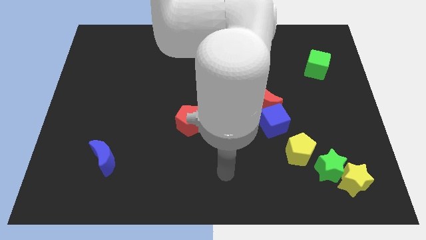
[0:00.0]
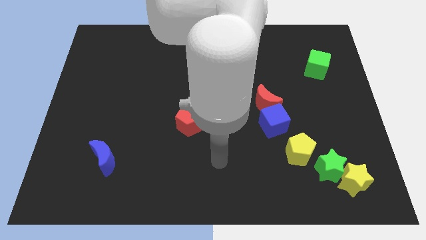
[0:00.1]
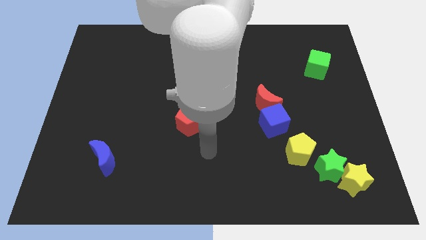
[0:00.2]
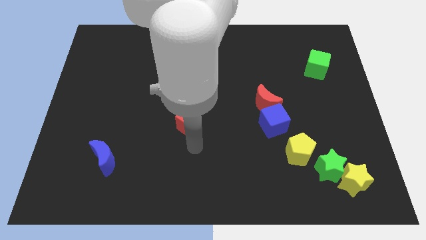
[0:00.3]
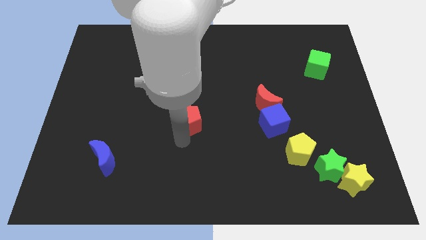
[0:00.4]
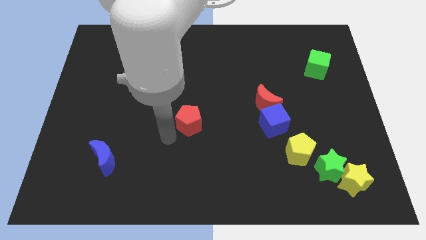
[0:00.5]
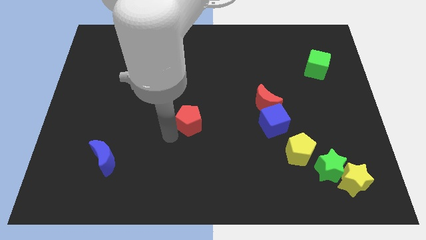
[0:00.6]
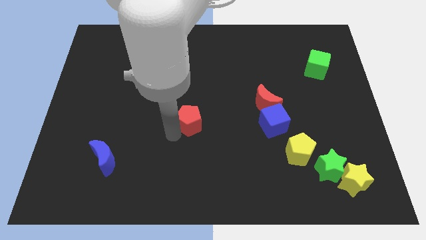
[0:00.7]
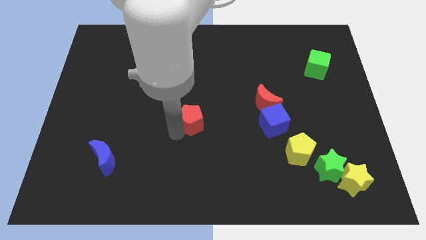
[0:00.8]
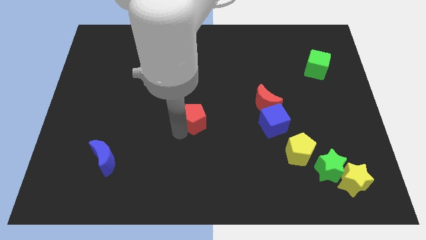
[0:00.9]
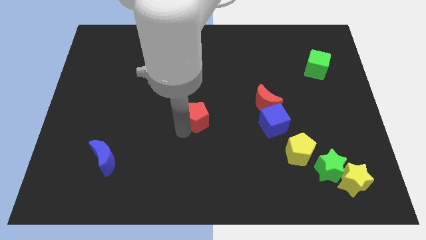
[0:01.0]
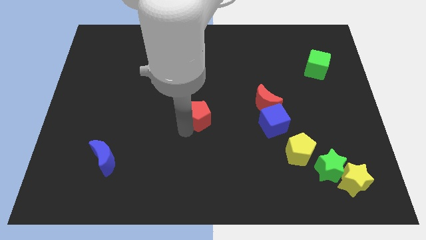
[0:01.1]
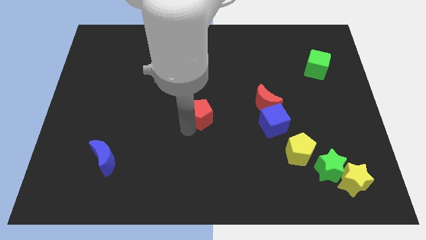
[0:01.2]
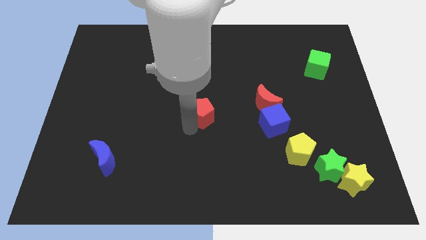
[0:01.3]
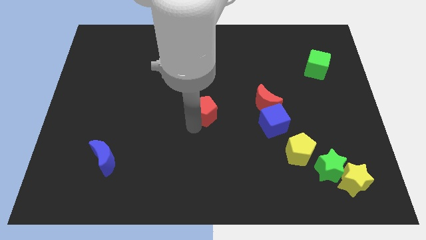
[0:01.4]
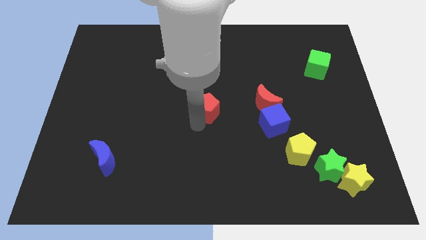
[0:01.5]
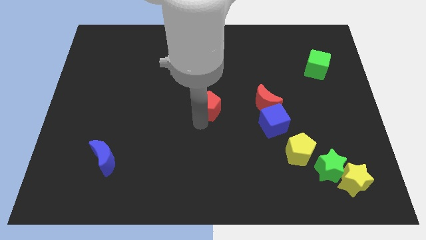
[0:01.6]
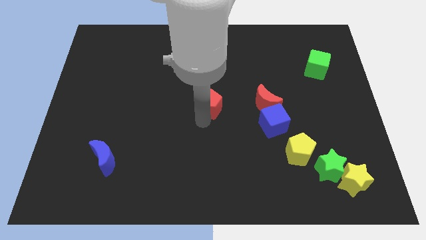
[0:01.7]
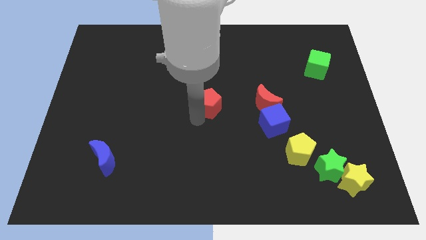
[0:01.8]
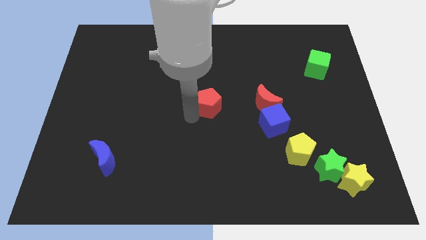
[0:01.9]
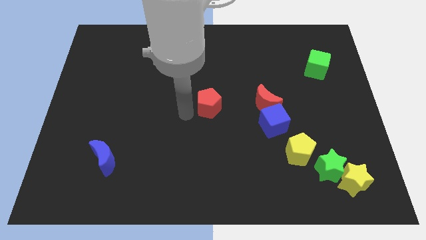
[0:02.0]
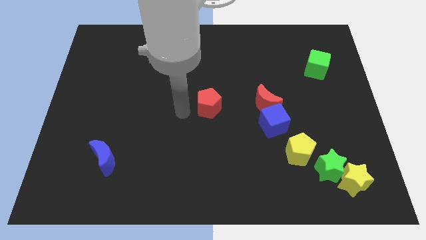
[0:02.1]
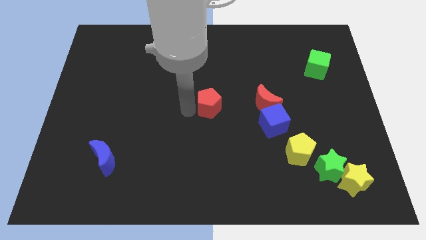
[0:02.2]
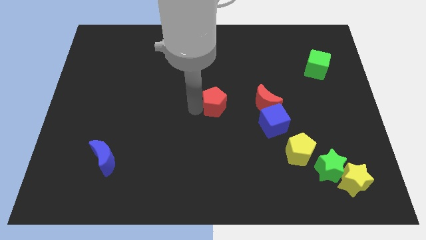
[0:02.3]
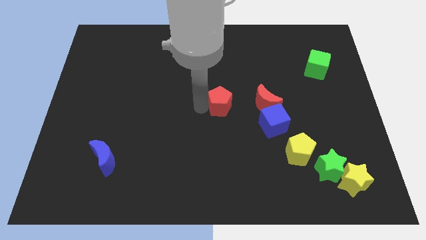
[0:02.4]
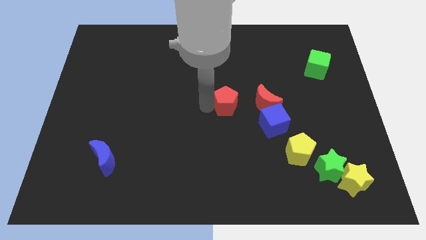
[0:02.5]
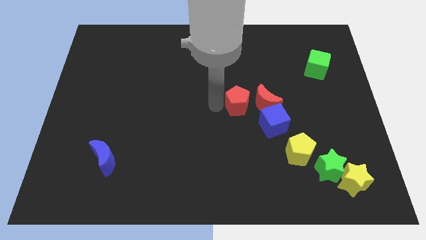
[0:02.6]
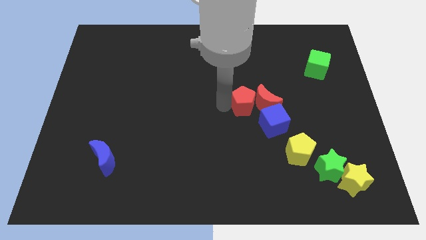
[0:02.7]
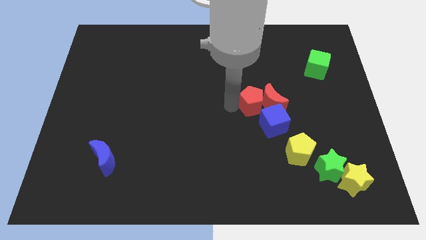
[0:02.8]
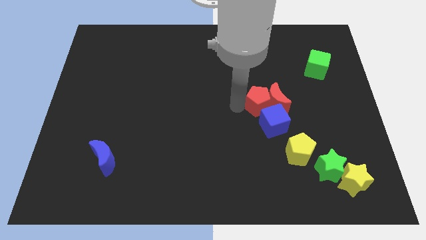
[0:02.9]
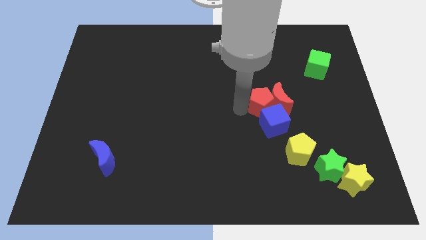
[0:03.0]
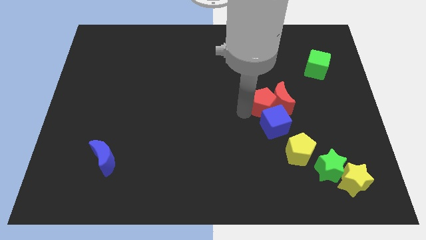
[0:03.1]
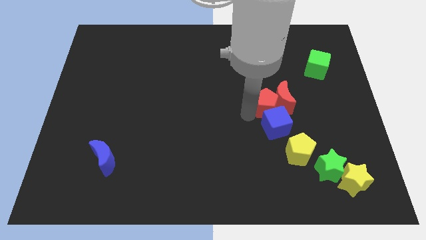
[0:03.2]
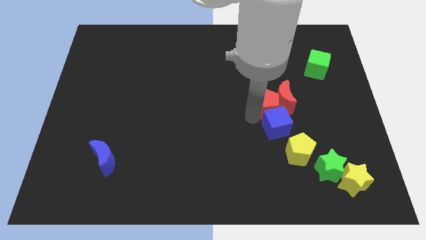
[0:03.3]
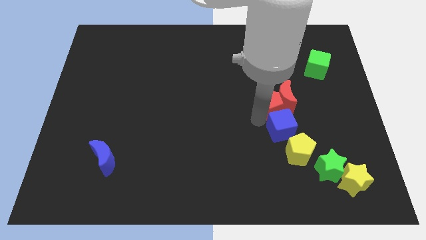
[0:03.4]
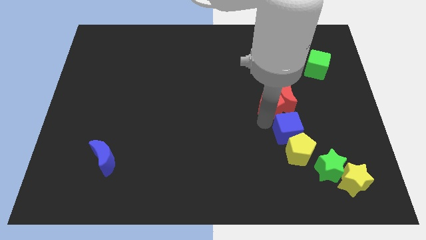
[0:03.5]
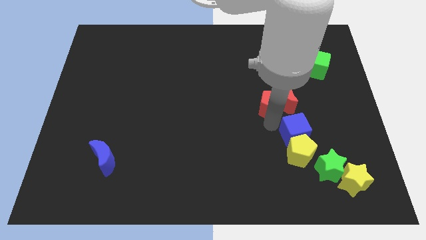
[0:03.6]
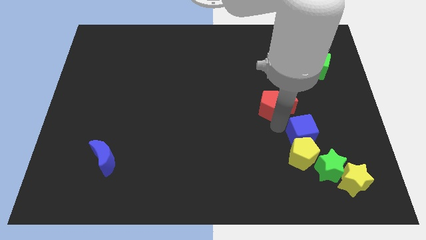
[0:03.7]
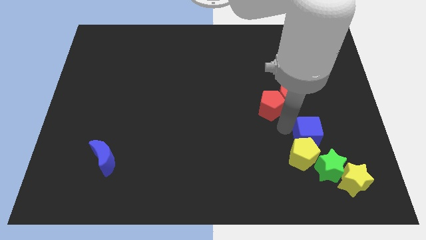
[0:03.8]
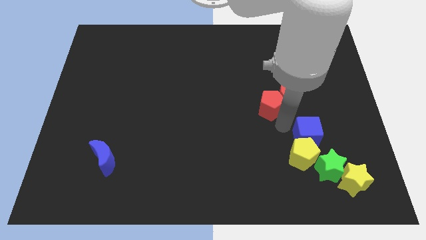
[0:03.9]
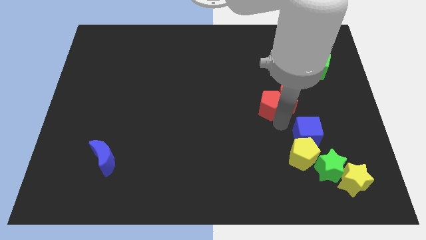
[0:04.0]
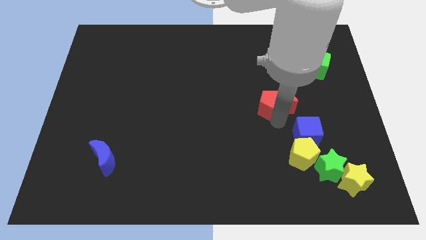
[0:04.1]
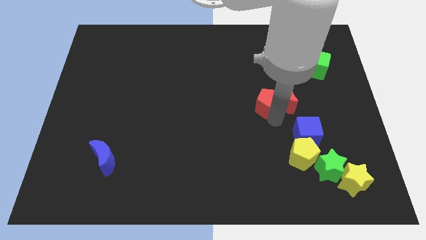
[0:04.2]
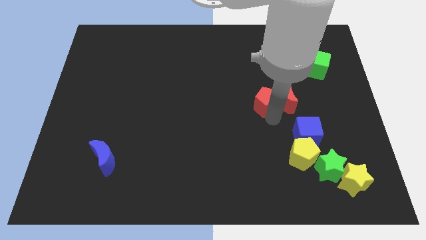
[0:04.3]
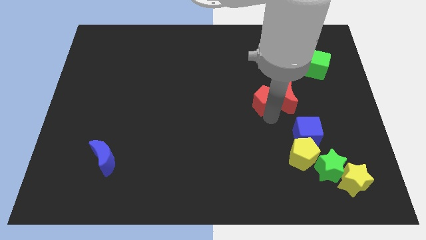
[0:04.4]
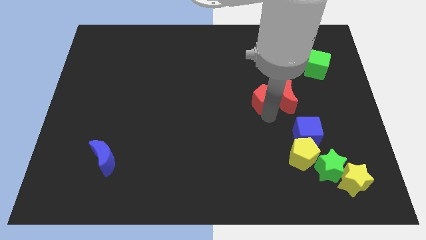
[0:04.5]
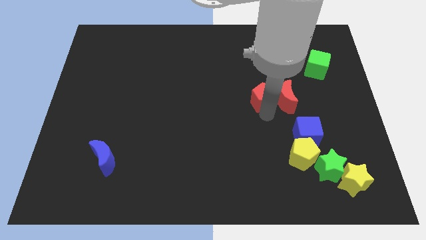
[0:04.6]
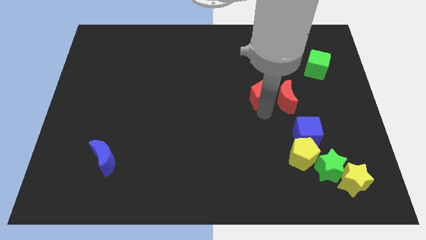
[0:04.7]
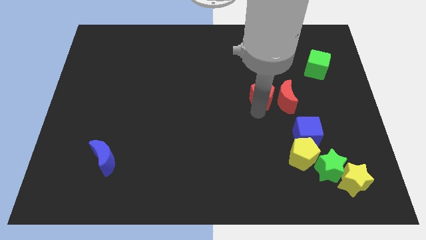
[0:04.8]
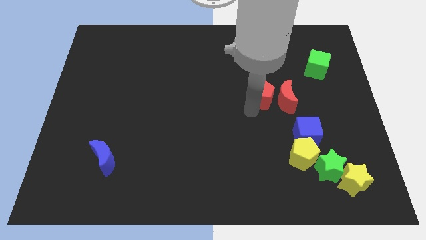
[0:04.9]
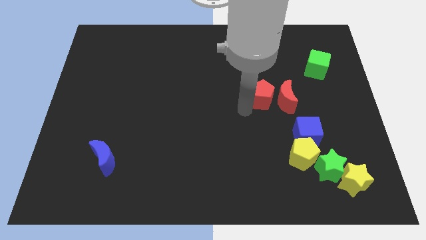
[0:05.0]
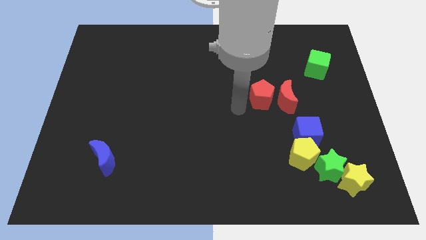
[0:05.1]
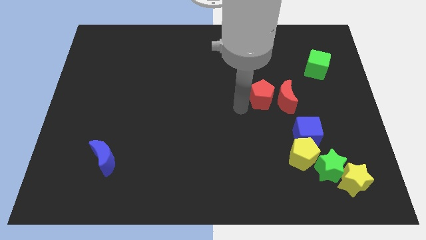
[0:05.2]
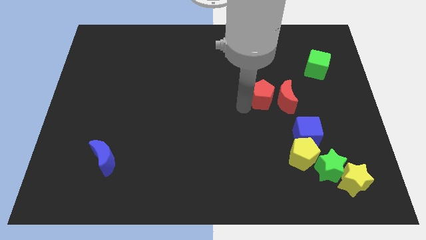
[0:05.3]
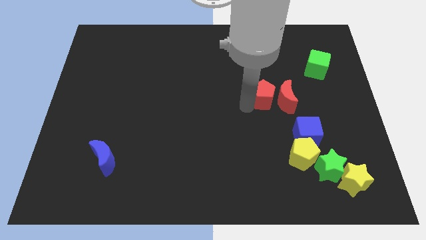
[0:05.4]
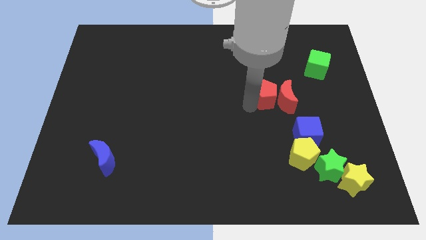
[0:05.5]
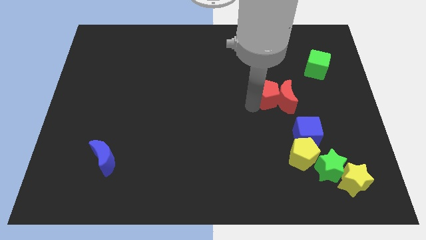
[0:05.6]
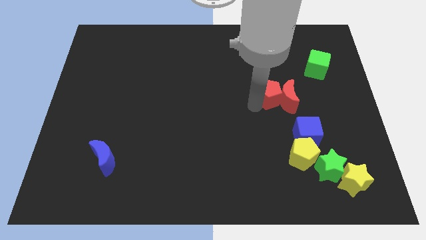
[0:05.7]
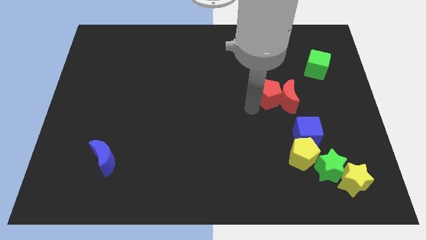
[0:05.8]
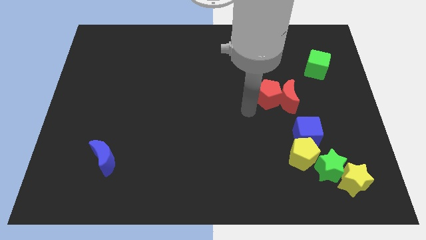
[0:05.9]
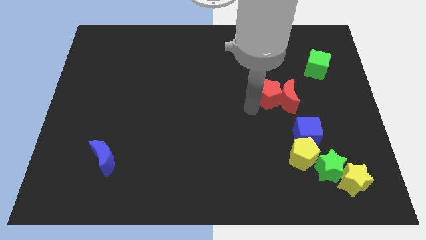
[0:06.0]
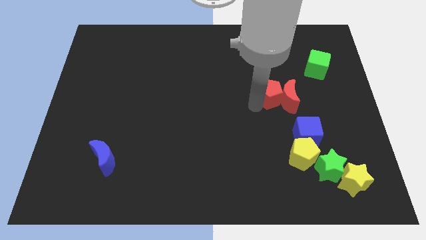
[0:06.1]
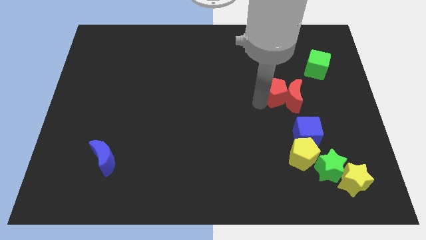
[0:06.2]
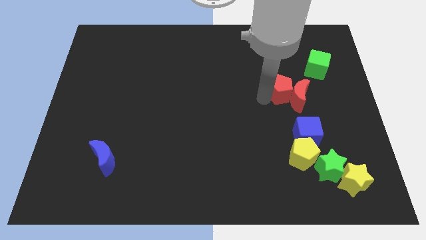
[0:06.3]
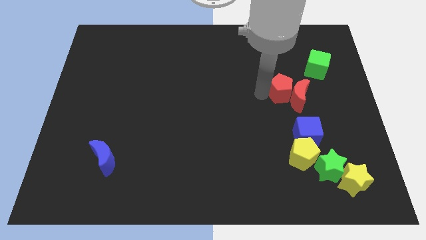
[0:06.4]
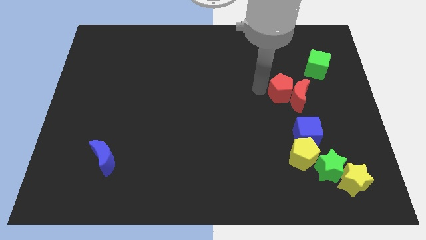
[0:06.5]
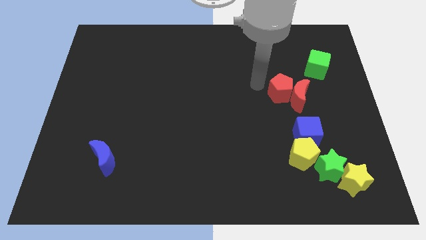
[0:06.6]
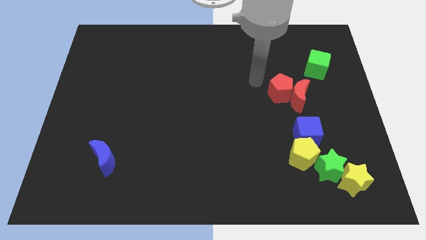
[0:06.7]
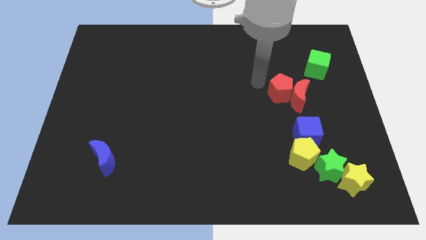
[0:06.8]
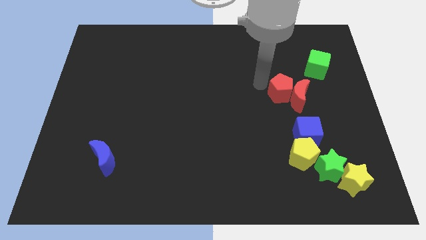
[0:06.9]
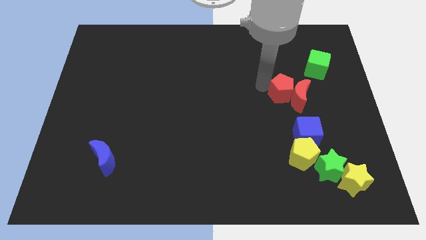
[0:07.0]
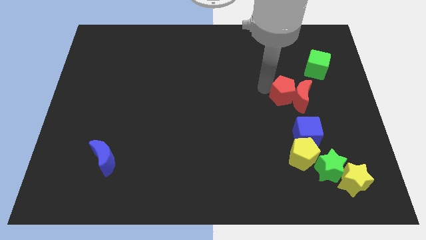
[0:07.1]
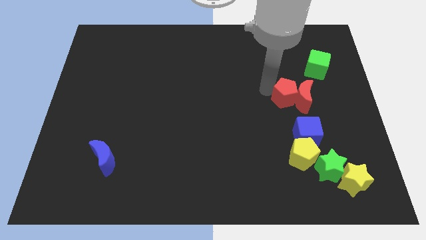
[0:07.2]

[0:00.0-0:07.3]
slide the red pentagon right

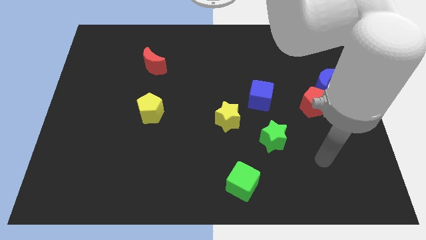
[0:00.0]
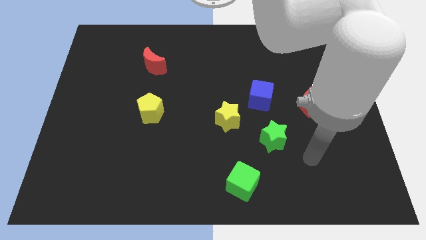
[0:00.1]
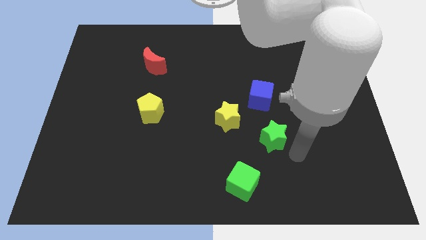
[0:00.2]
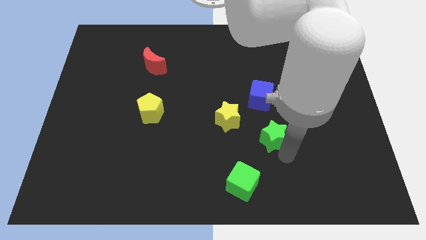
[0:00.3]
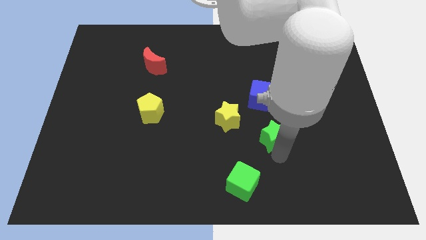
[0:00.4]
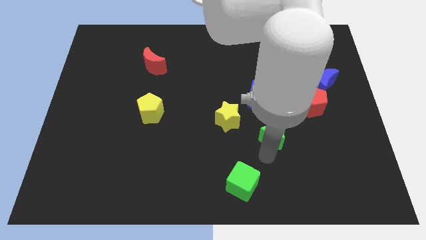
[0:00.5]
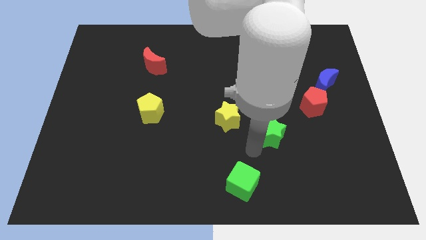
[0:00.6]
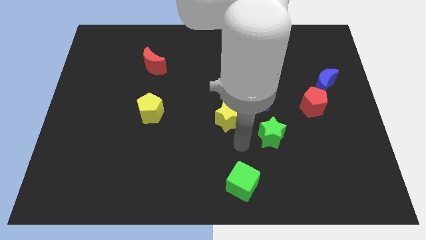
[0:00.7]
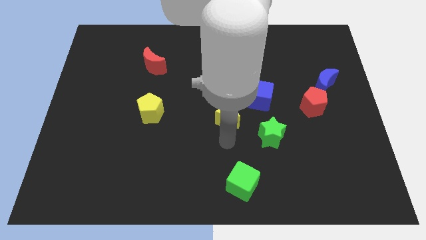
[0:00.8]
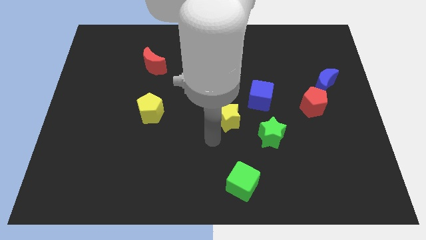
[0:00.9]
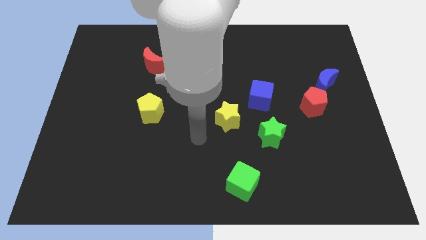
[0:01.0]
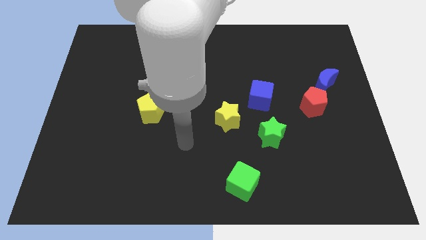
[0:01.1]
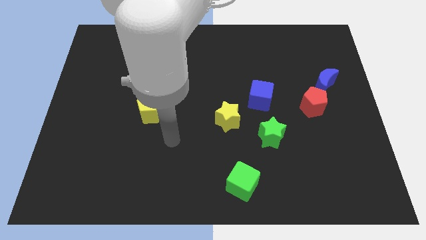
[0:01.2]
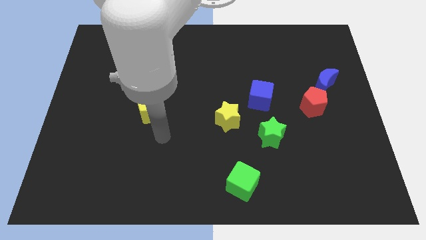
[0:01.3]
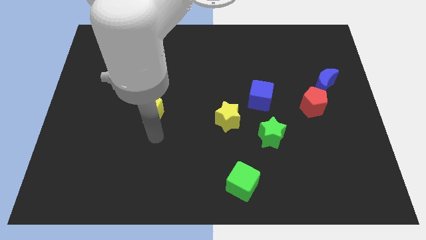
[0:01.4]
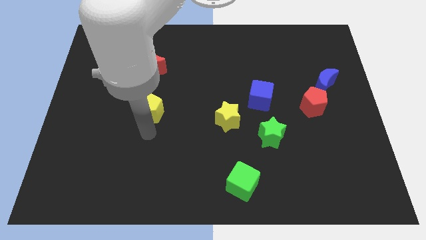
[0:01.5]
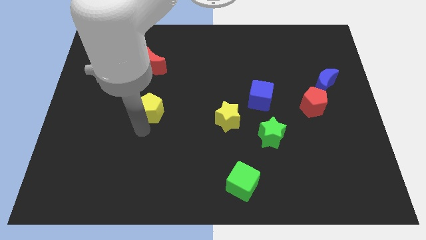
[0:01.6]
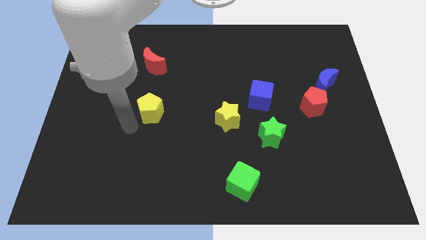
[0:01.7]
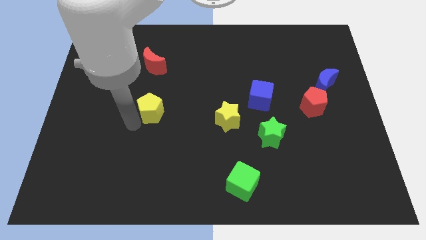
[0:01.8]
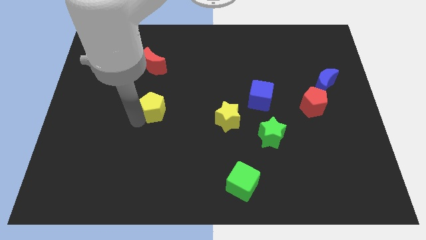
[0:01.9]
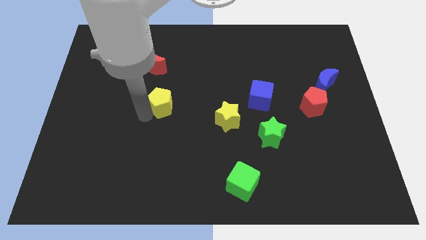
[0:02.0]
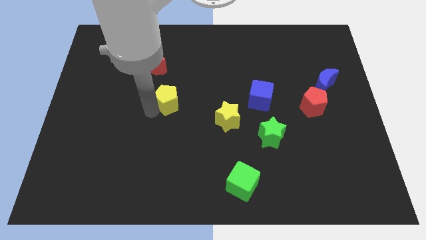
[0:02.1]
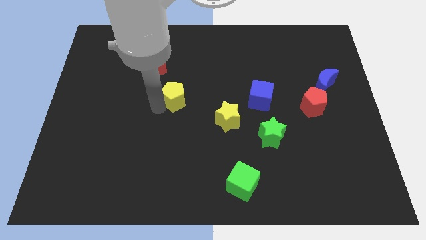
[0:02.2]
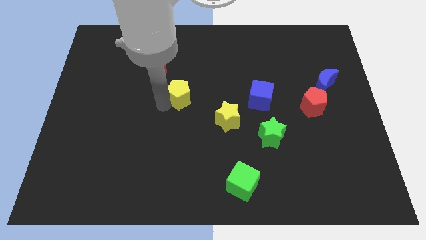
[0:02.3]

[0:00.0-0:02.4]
push the yellow pentagon a little diagonally up and to the right
